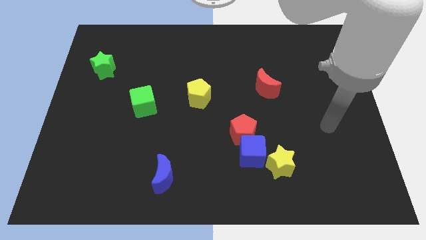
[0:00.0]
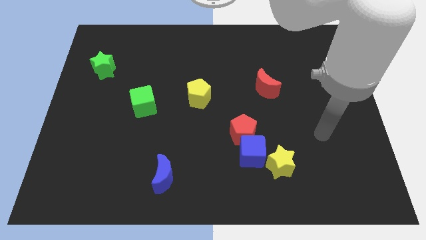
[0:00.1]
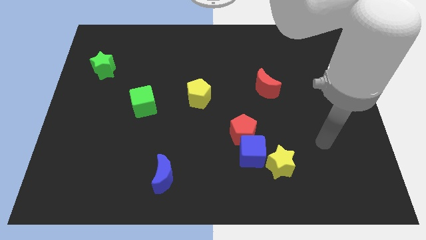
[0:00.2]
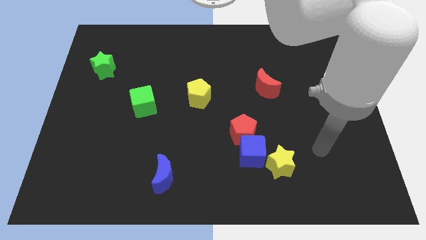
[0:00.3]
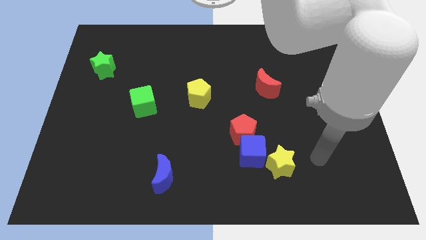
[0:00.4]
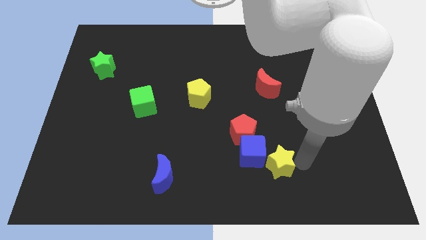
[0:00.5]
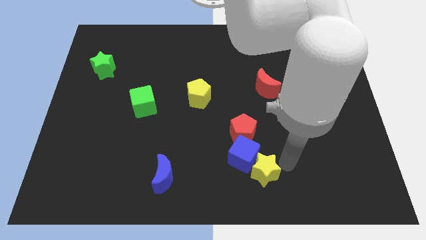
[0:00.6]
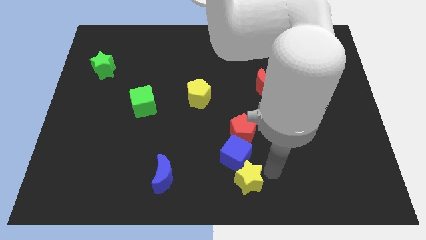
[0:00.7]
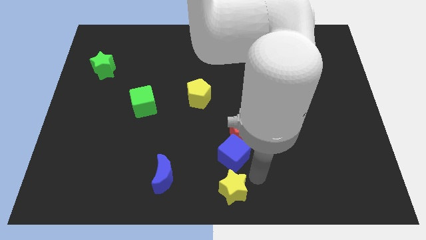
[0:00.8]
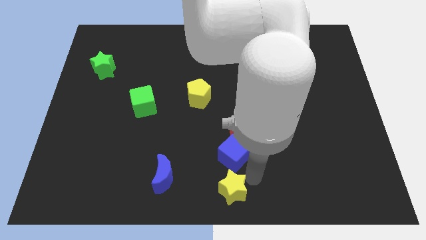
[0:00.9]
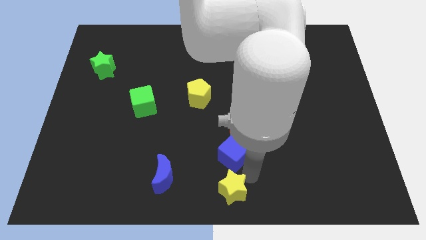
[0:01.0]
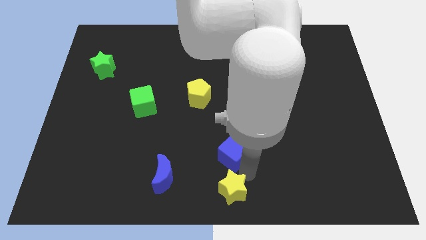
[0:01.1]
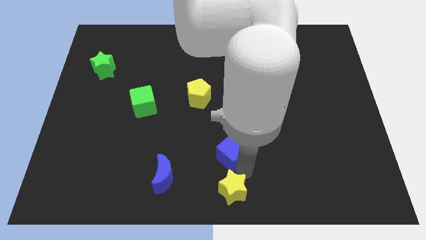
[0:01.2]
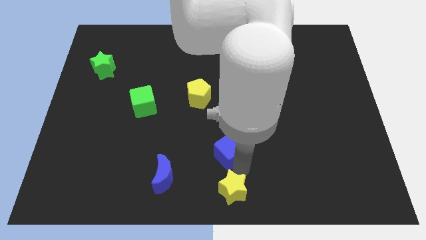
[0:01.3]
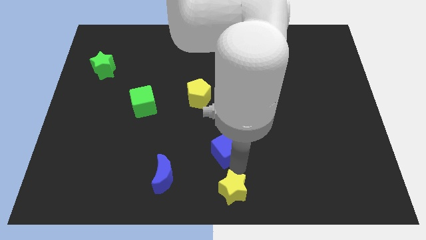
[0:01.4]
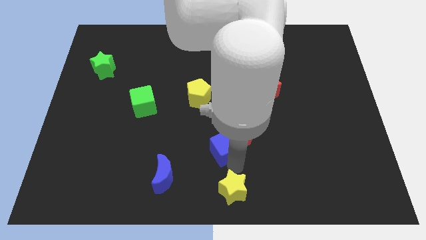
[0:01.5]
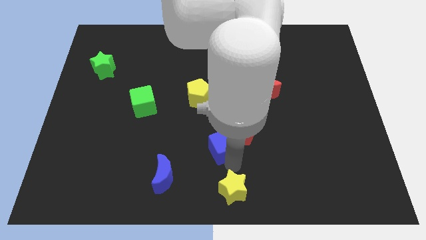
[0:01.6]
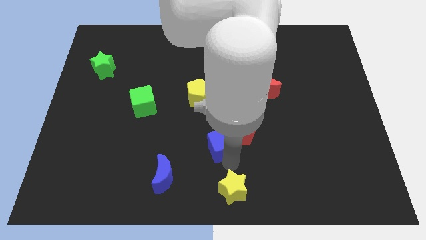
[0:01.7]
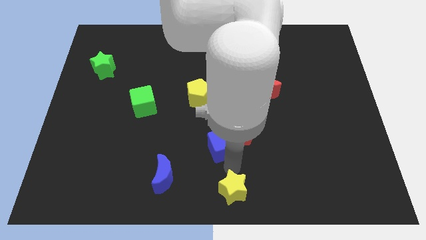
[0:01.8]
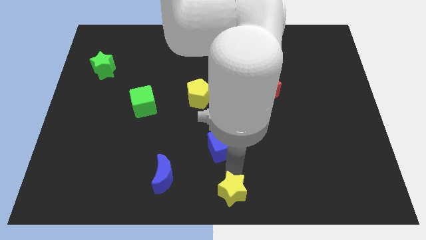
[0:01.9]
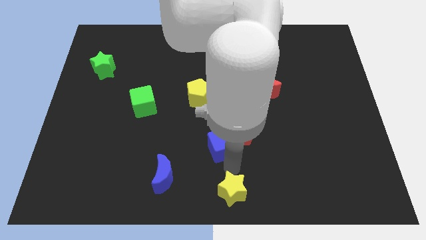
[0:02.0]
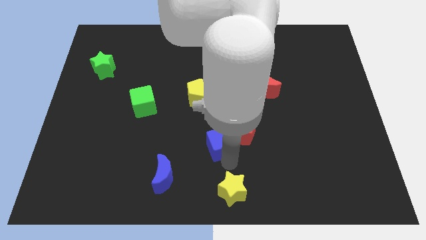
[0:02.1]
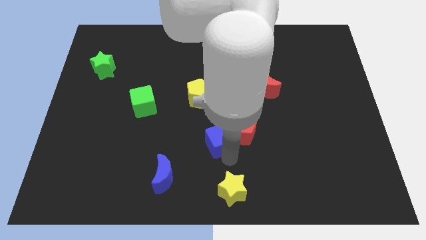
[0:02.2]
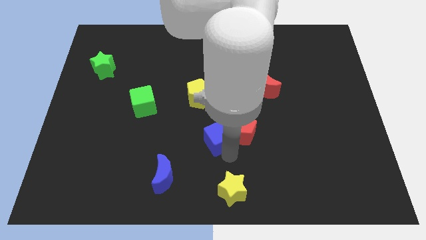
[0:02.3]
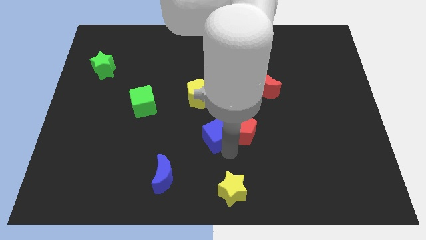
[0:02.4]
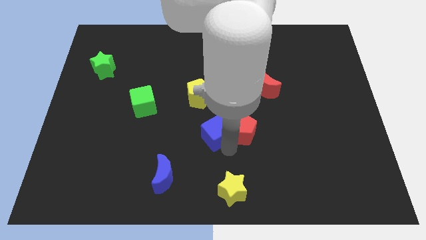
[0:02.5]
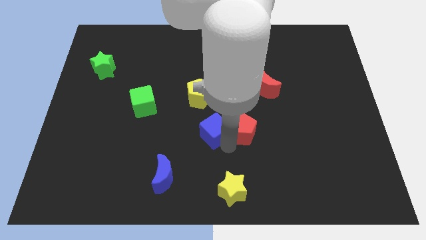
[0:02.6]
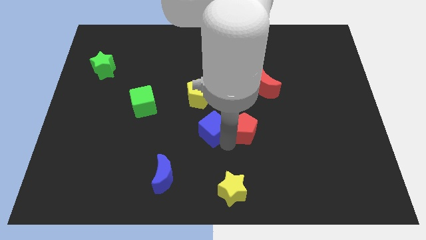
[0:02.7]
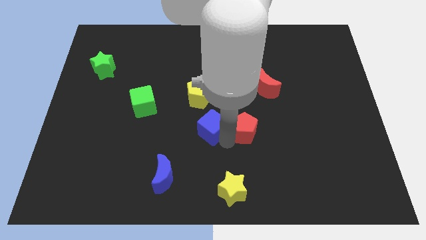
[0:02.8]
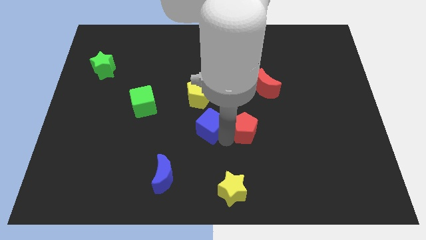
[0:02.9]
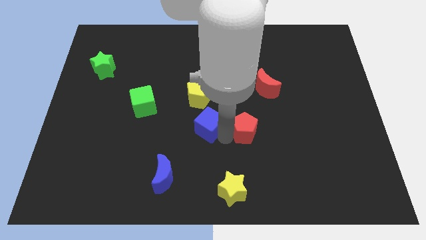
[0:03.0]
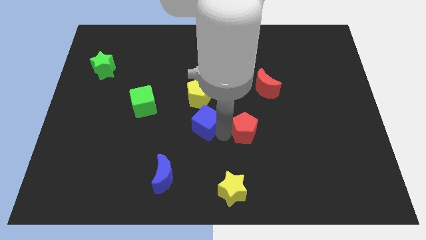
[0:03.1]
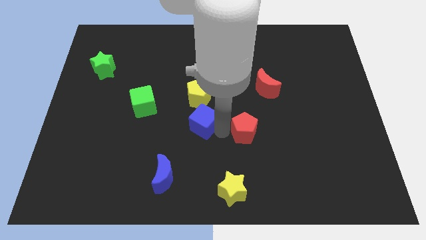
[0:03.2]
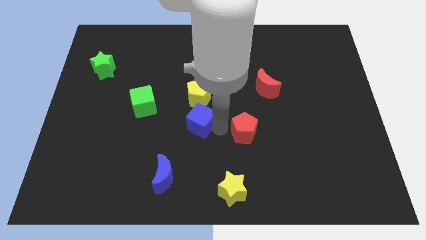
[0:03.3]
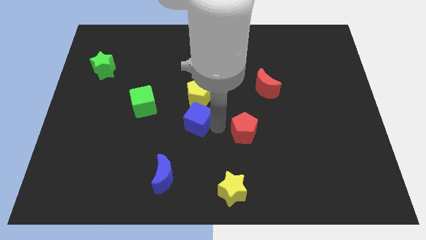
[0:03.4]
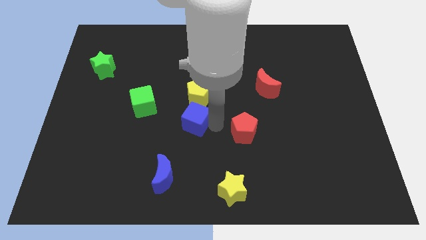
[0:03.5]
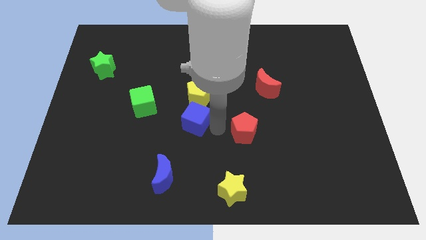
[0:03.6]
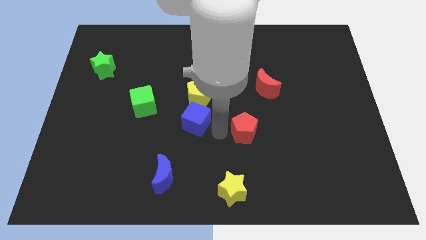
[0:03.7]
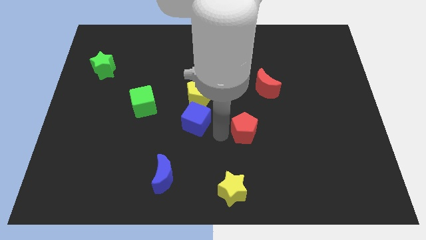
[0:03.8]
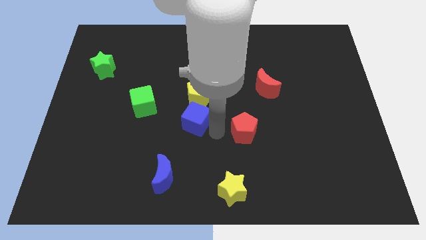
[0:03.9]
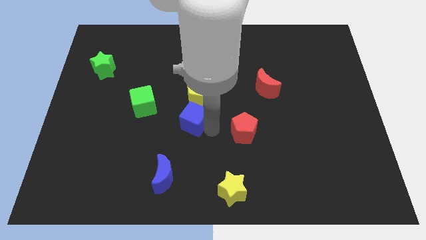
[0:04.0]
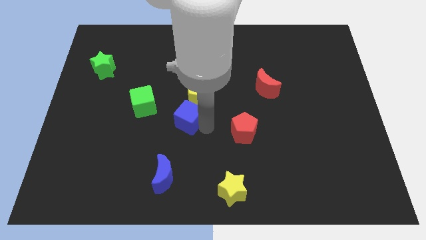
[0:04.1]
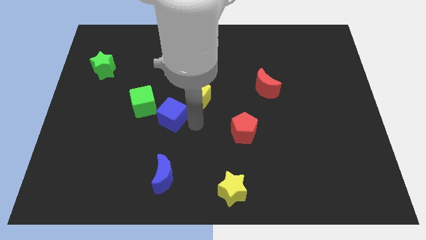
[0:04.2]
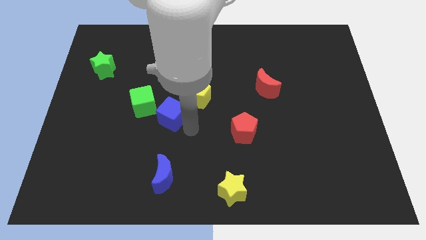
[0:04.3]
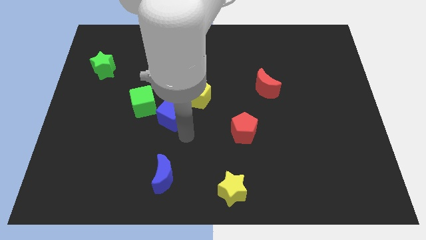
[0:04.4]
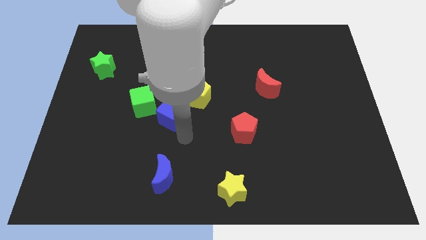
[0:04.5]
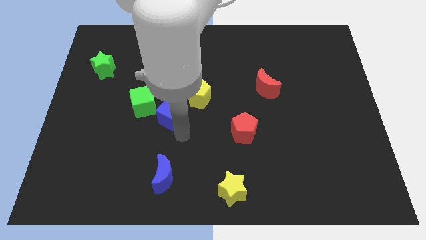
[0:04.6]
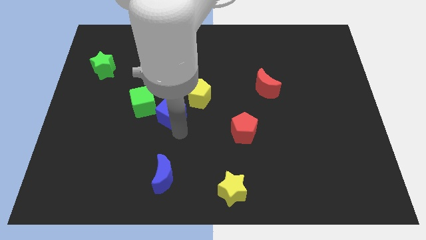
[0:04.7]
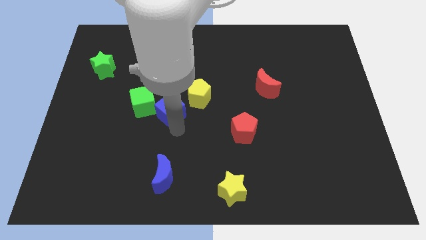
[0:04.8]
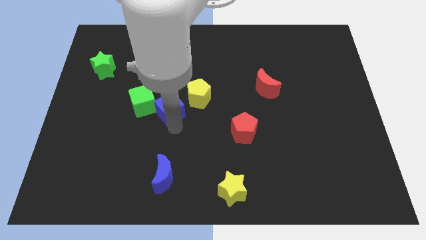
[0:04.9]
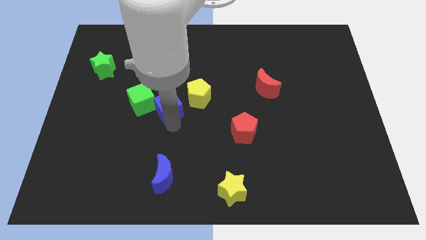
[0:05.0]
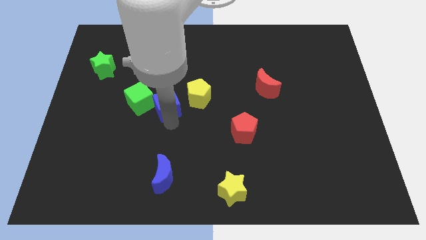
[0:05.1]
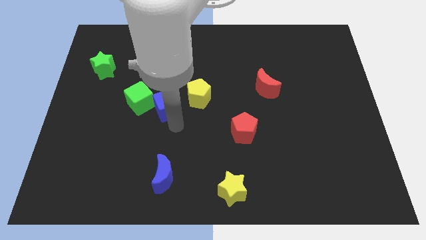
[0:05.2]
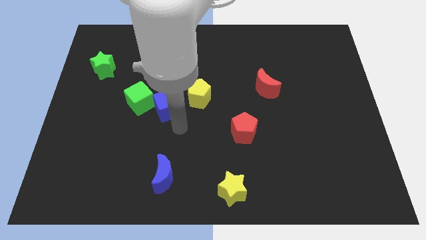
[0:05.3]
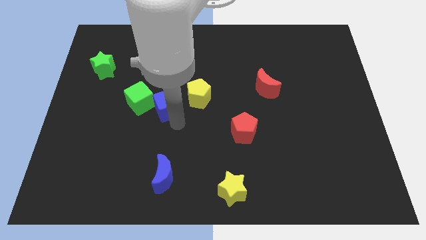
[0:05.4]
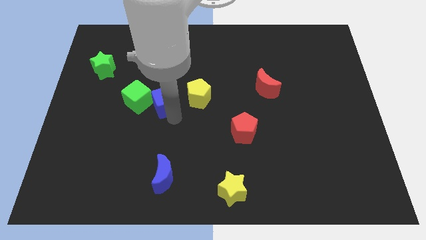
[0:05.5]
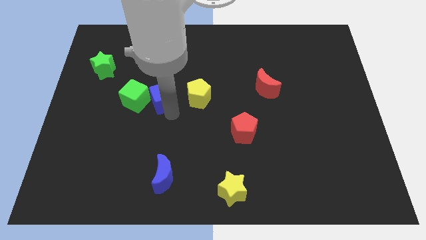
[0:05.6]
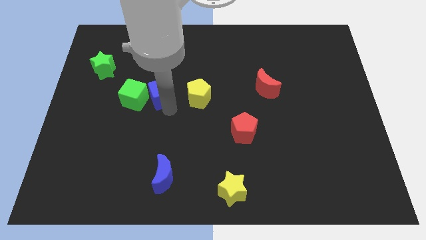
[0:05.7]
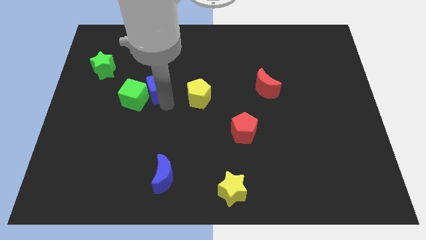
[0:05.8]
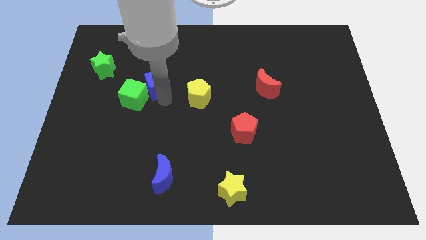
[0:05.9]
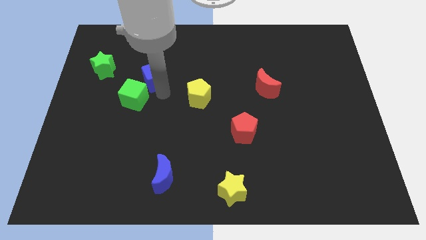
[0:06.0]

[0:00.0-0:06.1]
move the blue cube to the top side of the green cube
